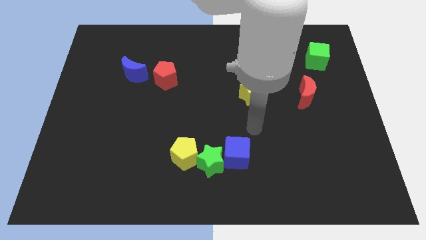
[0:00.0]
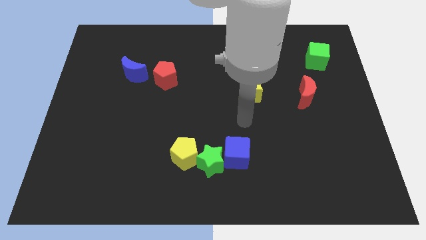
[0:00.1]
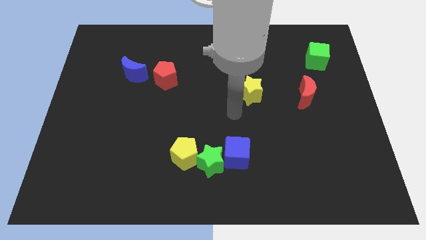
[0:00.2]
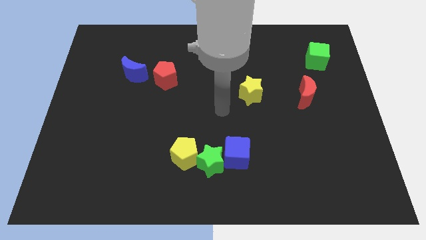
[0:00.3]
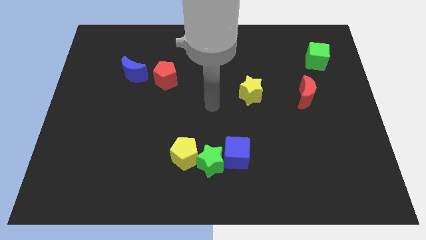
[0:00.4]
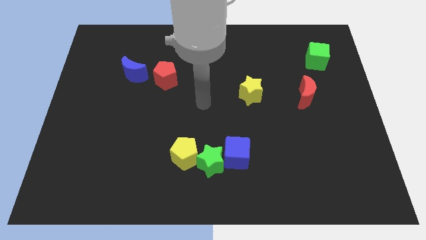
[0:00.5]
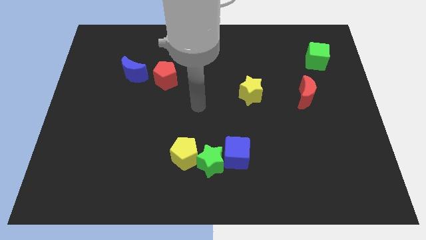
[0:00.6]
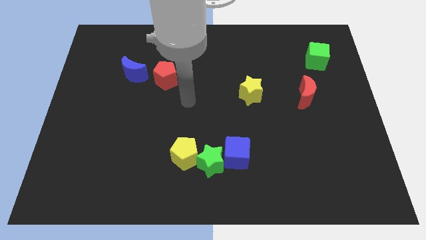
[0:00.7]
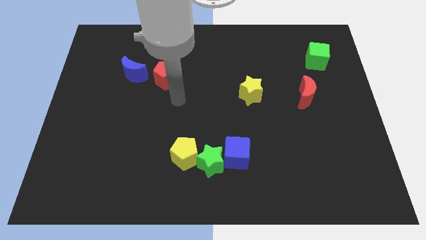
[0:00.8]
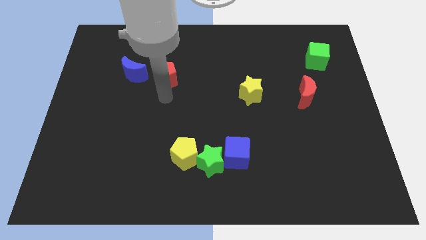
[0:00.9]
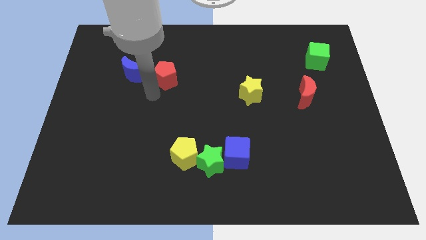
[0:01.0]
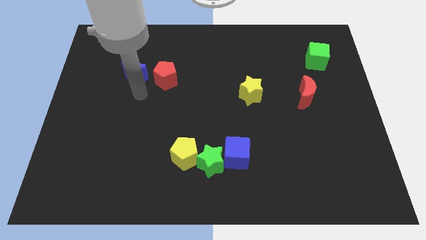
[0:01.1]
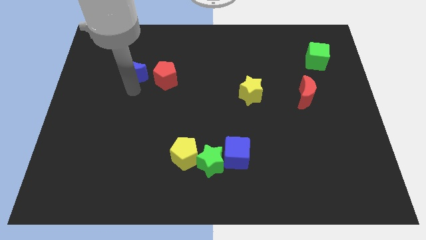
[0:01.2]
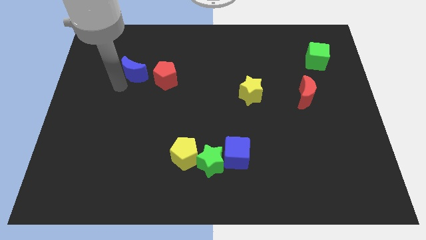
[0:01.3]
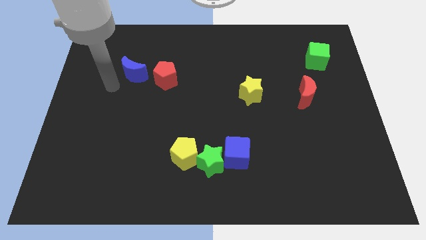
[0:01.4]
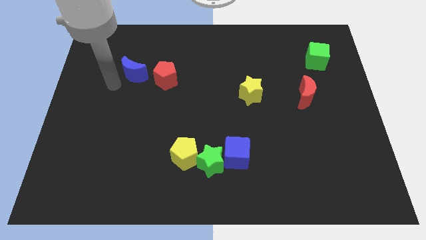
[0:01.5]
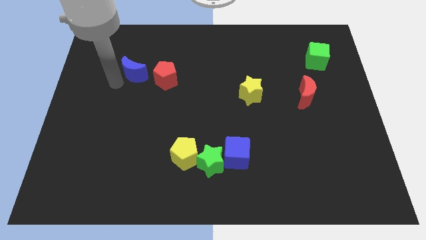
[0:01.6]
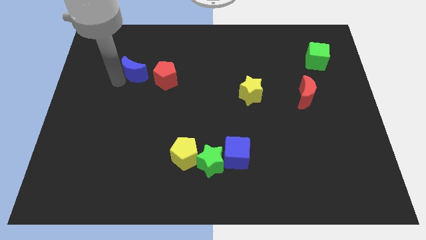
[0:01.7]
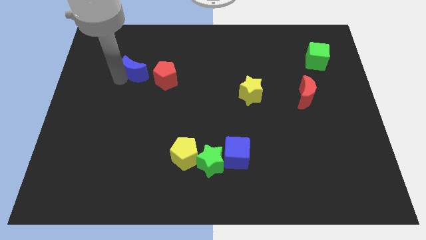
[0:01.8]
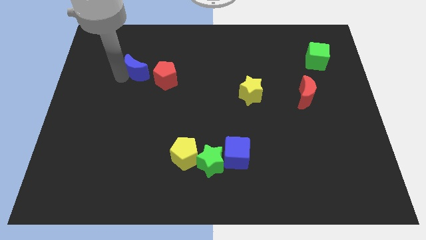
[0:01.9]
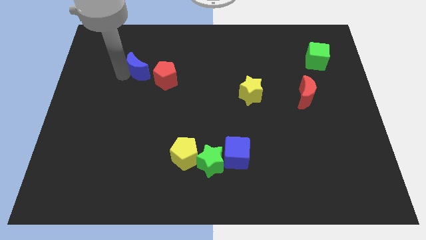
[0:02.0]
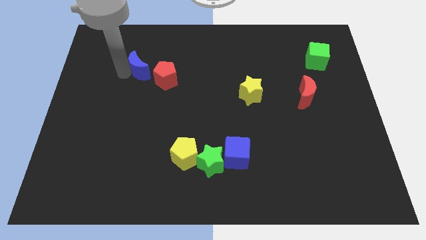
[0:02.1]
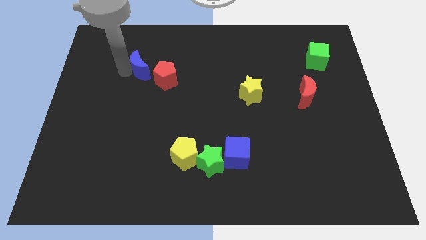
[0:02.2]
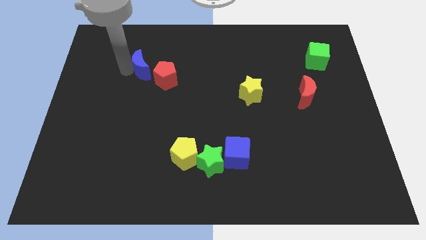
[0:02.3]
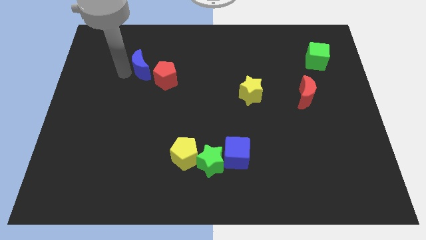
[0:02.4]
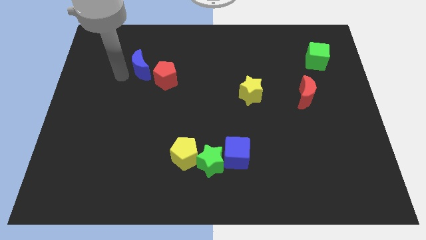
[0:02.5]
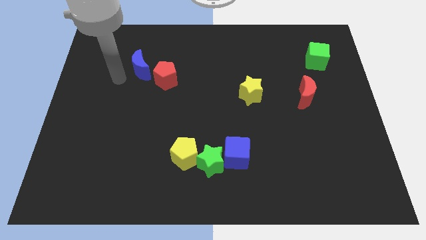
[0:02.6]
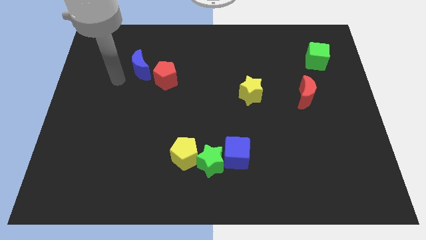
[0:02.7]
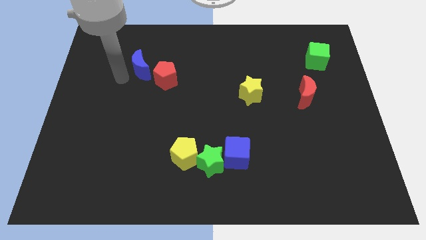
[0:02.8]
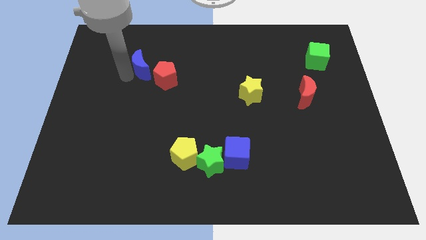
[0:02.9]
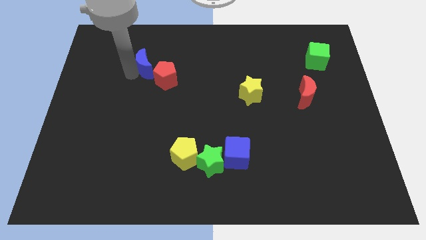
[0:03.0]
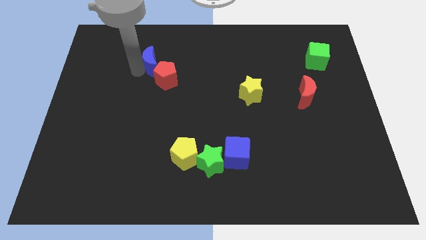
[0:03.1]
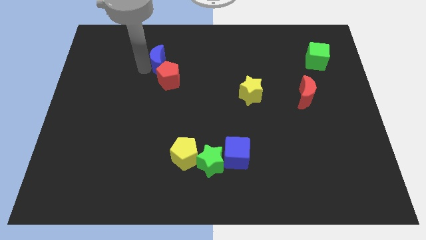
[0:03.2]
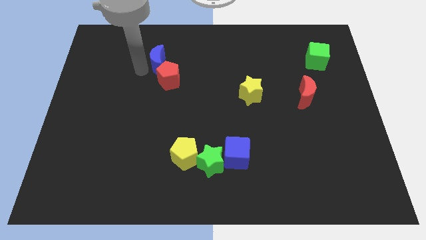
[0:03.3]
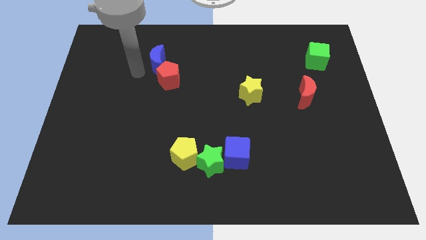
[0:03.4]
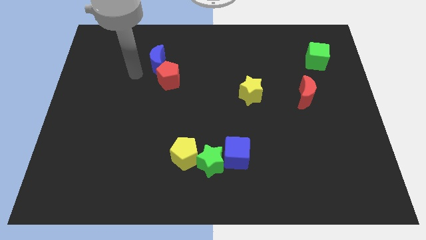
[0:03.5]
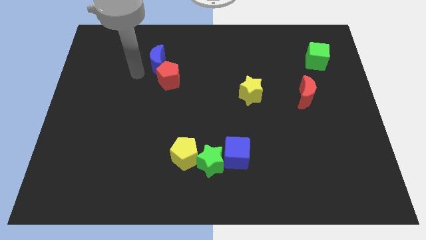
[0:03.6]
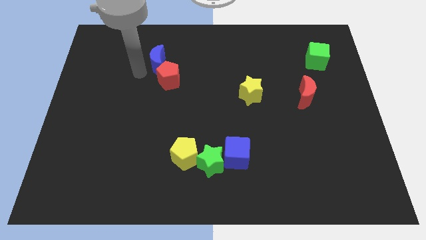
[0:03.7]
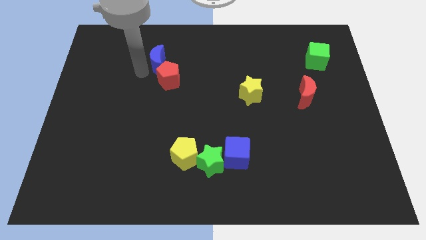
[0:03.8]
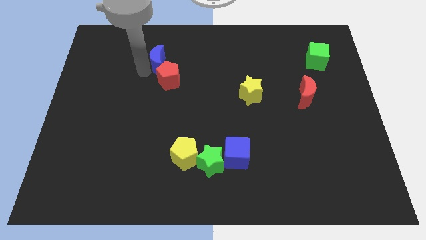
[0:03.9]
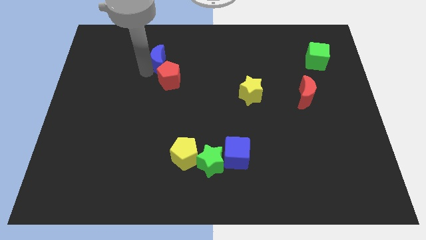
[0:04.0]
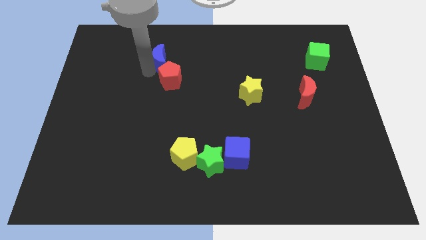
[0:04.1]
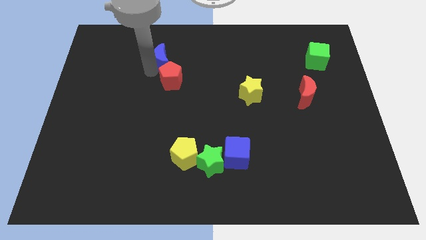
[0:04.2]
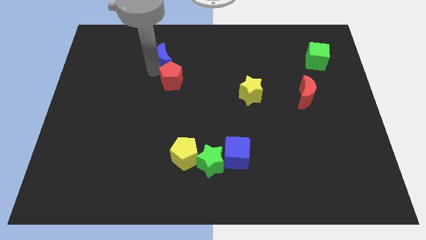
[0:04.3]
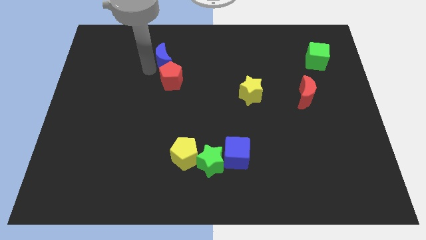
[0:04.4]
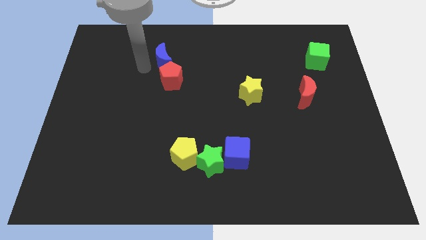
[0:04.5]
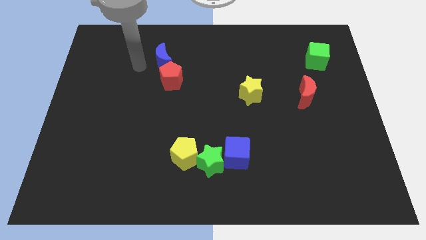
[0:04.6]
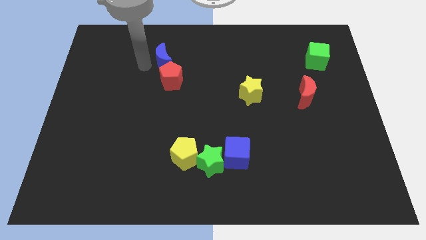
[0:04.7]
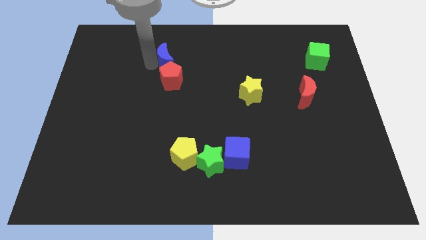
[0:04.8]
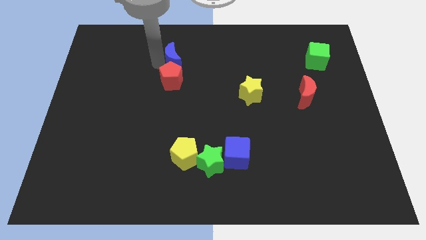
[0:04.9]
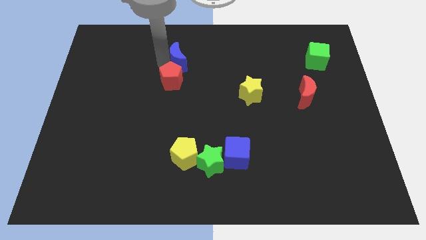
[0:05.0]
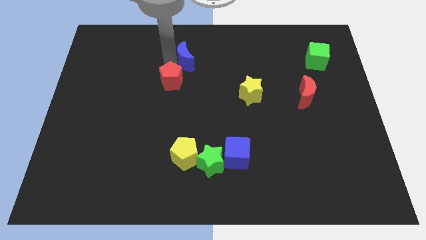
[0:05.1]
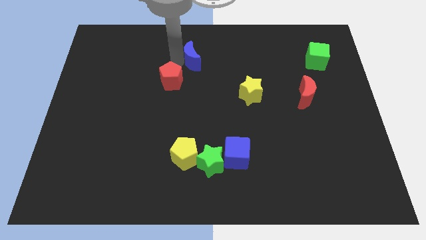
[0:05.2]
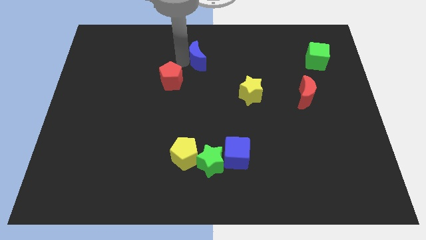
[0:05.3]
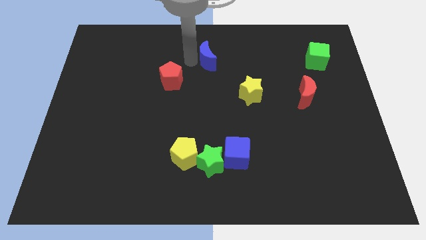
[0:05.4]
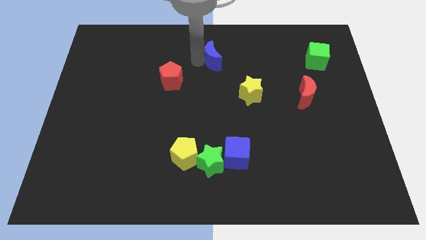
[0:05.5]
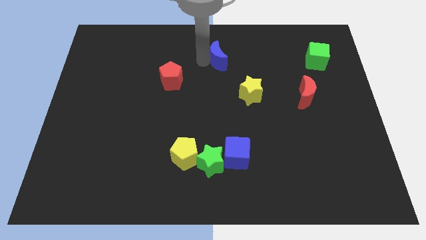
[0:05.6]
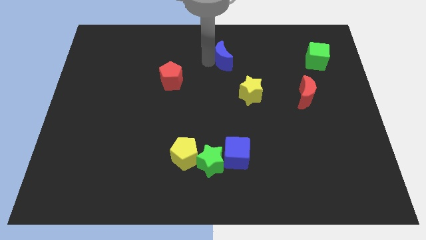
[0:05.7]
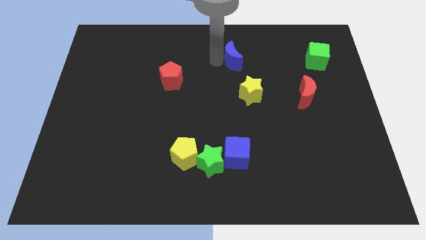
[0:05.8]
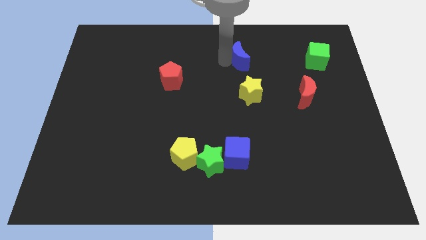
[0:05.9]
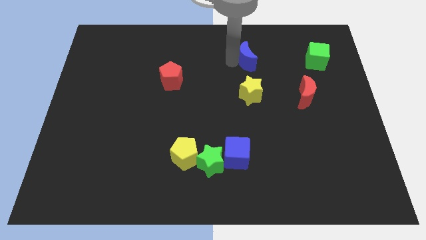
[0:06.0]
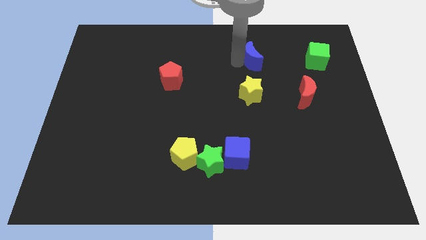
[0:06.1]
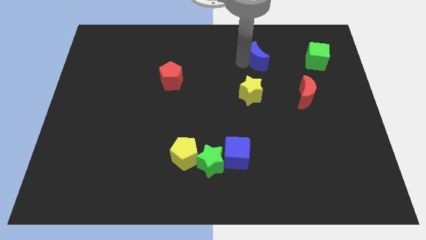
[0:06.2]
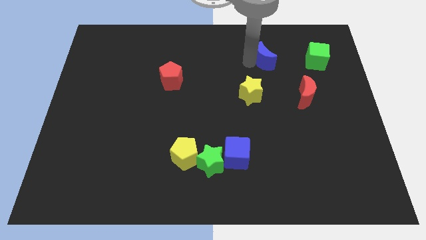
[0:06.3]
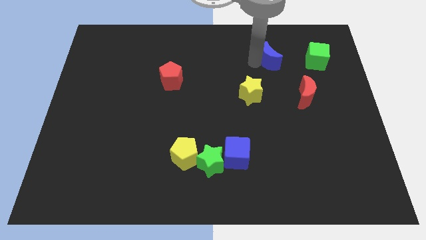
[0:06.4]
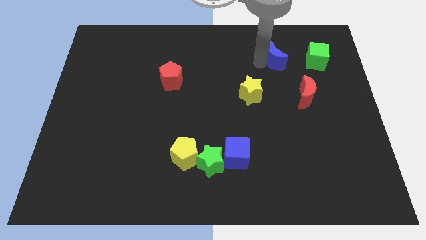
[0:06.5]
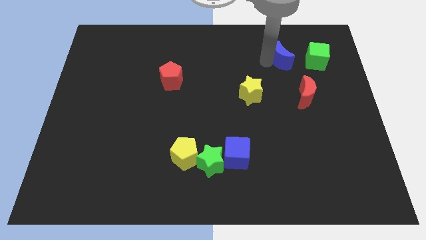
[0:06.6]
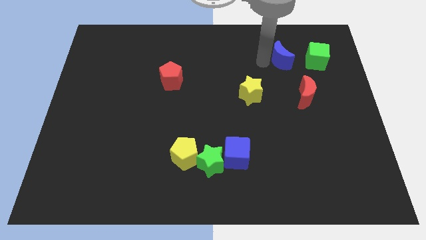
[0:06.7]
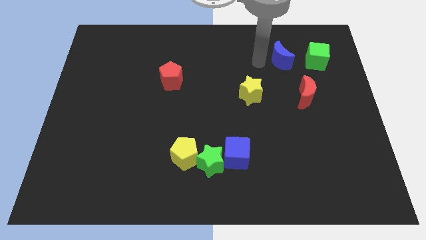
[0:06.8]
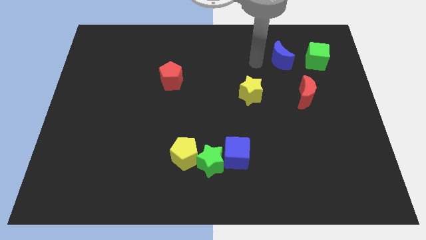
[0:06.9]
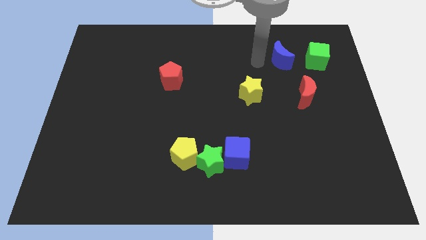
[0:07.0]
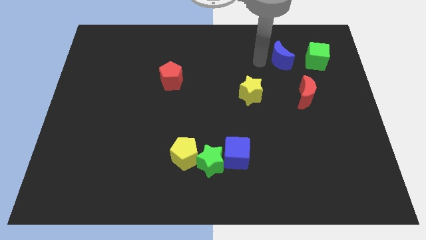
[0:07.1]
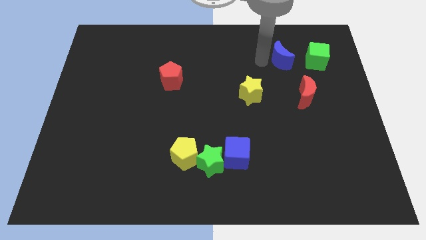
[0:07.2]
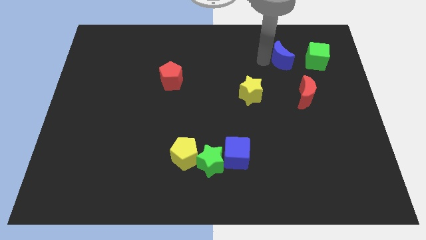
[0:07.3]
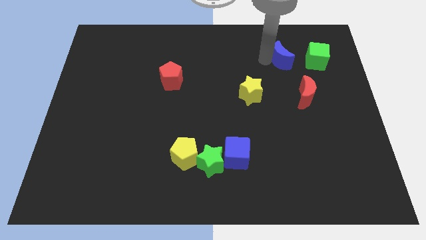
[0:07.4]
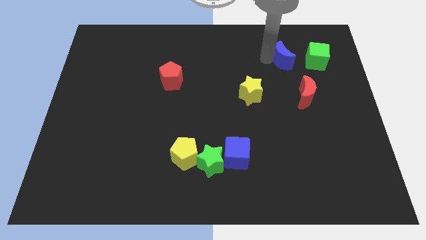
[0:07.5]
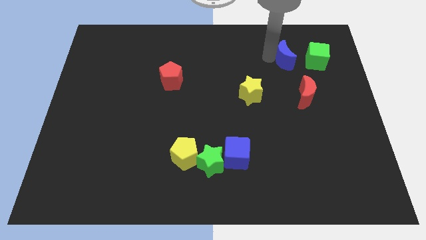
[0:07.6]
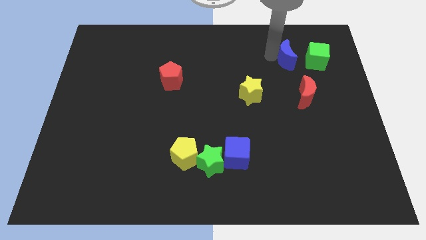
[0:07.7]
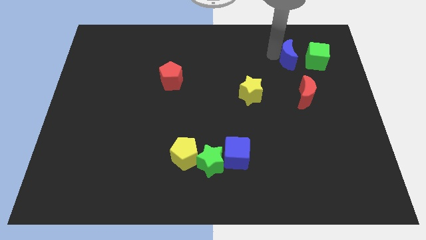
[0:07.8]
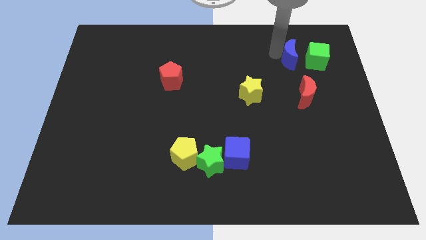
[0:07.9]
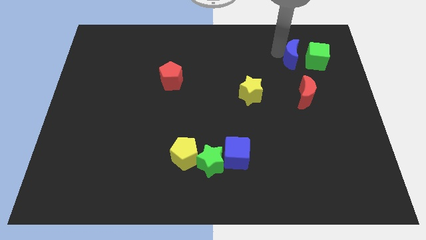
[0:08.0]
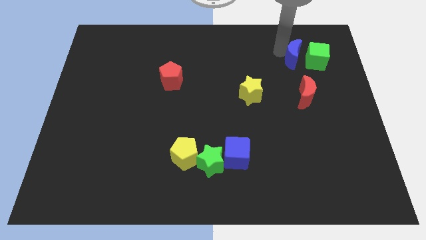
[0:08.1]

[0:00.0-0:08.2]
put the blue moon towards the green cube
